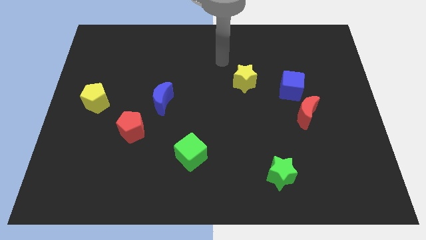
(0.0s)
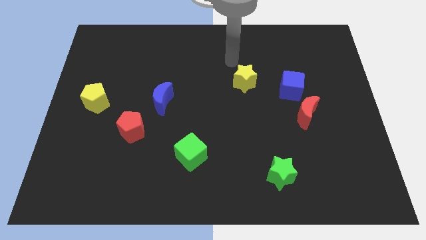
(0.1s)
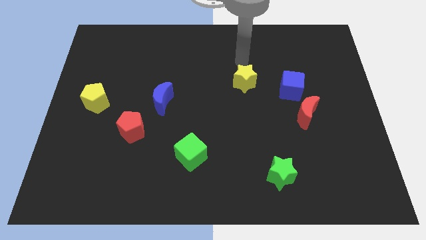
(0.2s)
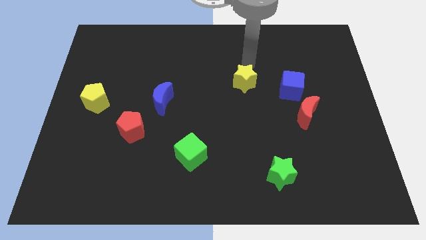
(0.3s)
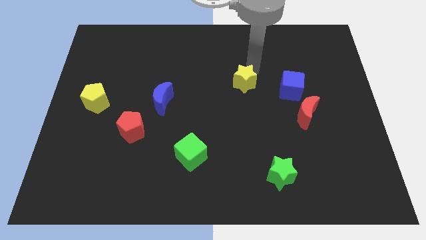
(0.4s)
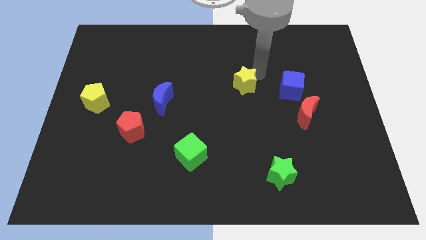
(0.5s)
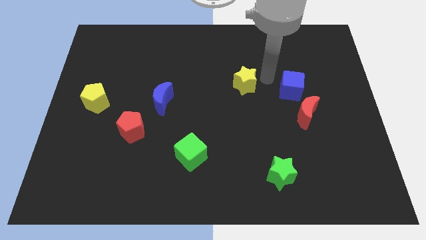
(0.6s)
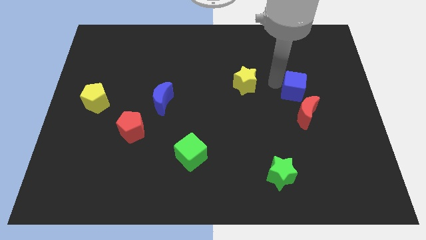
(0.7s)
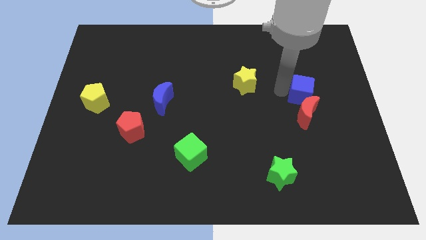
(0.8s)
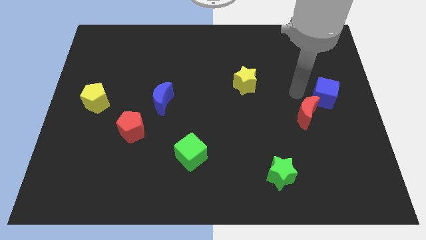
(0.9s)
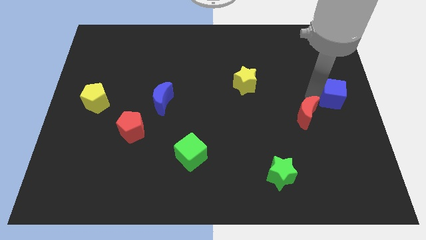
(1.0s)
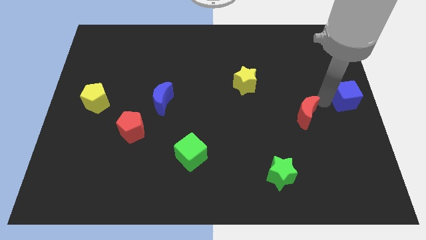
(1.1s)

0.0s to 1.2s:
pull the red moon apart from the blue cube

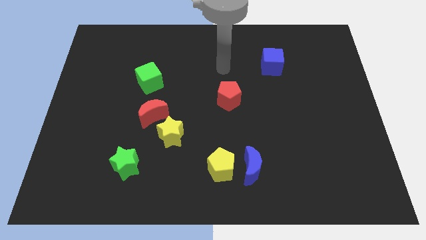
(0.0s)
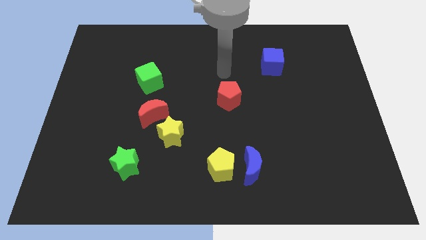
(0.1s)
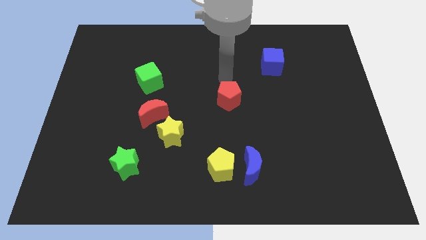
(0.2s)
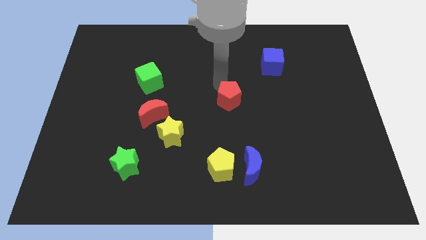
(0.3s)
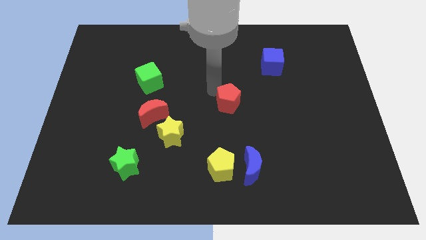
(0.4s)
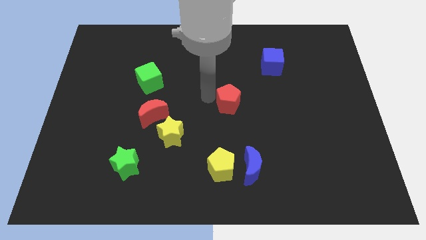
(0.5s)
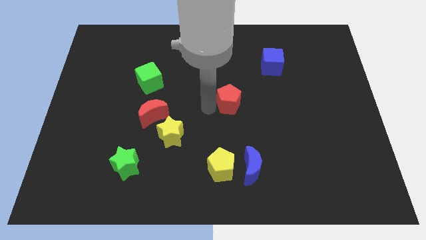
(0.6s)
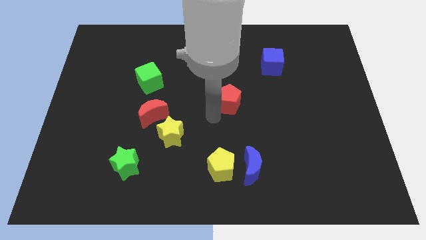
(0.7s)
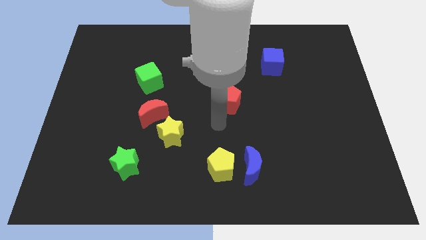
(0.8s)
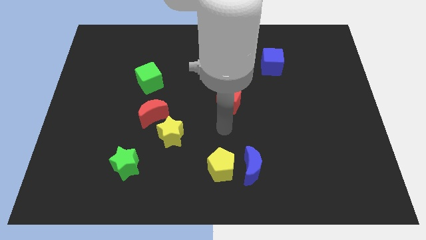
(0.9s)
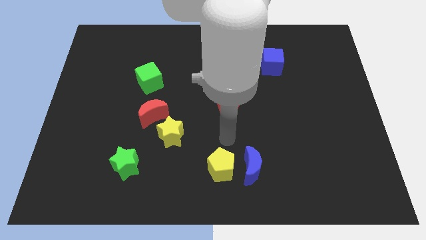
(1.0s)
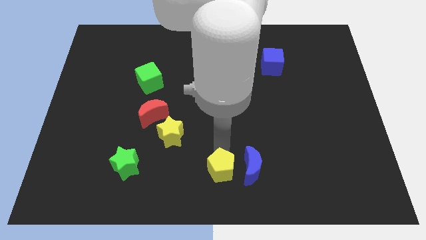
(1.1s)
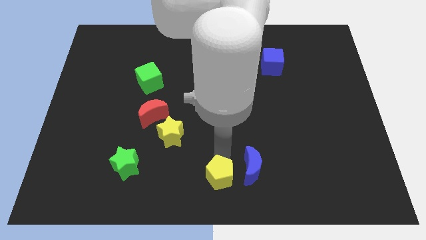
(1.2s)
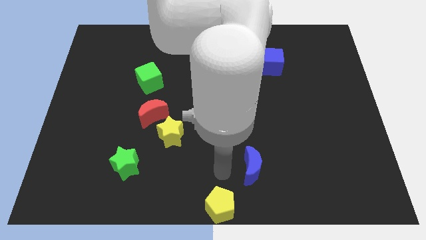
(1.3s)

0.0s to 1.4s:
separate the blue moon from the yellow pentagon

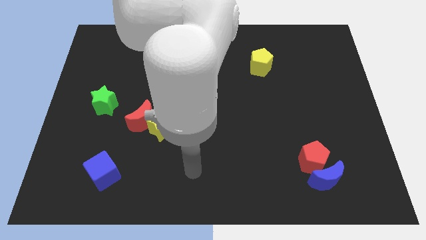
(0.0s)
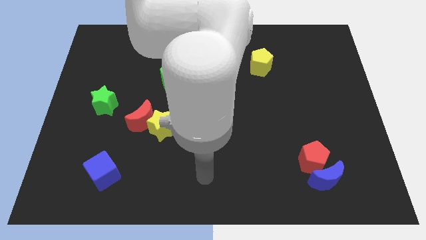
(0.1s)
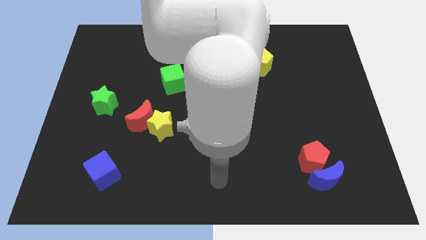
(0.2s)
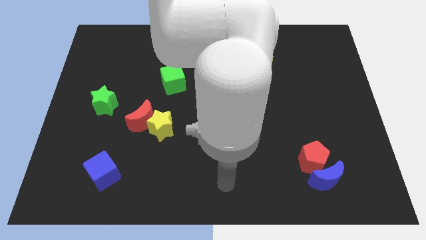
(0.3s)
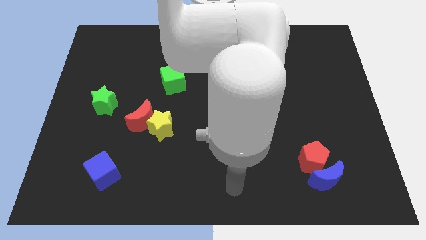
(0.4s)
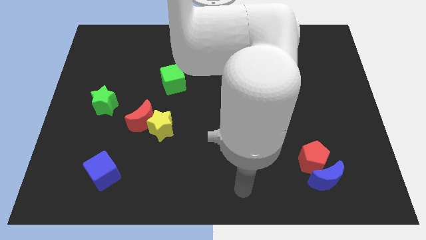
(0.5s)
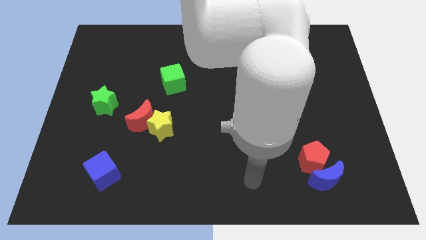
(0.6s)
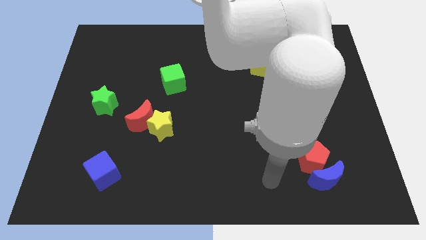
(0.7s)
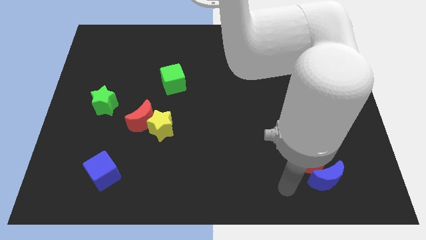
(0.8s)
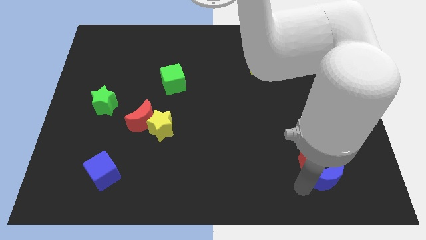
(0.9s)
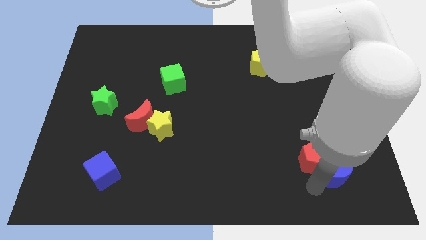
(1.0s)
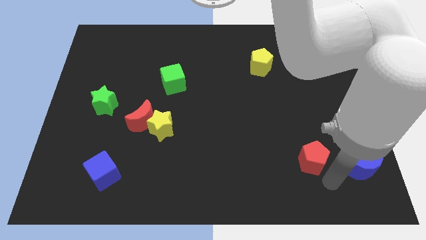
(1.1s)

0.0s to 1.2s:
pull the red pentagon apart from the blue moon

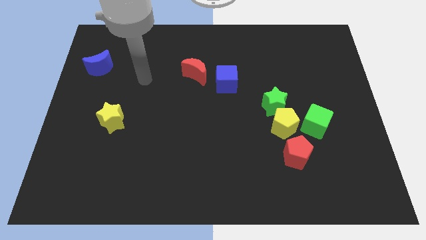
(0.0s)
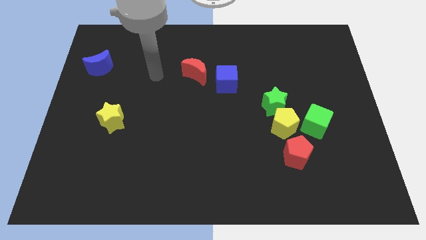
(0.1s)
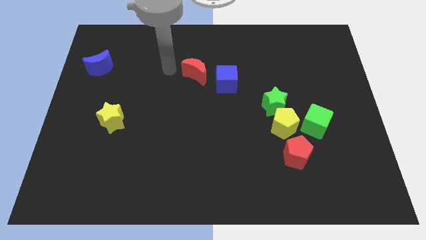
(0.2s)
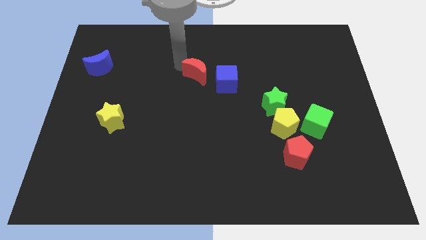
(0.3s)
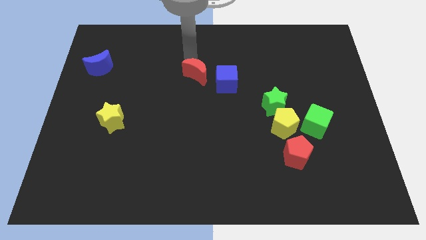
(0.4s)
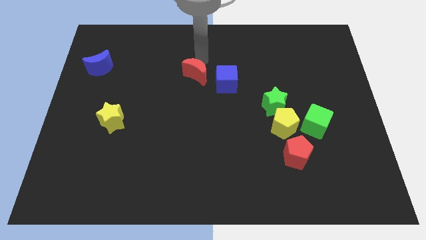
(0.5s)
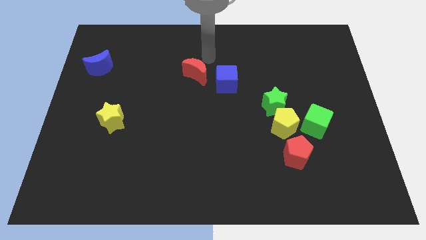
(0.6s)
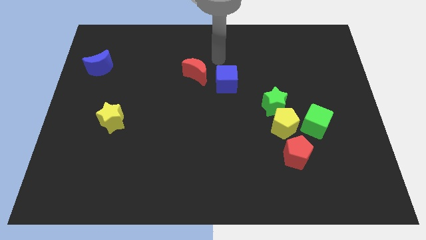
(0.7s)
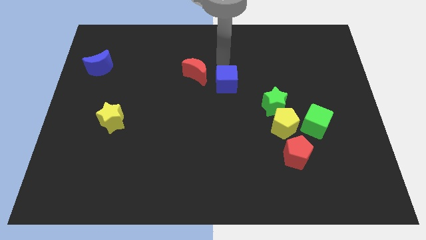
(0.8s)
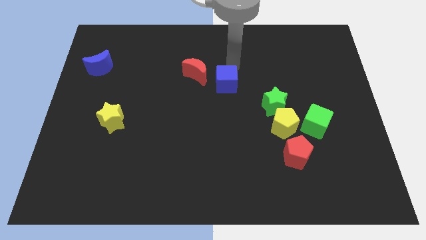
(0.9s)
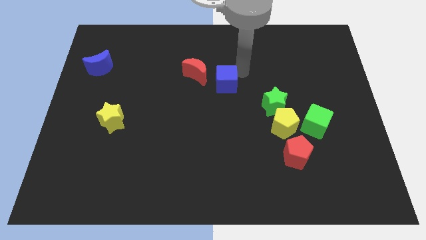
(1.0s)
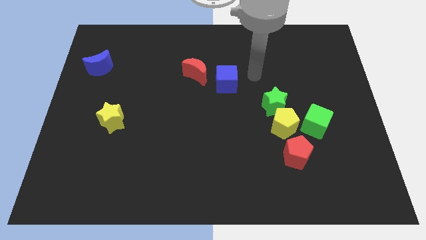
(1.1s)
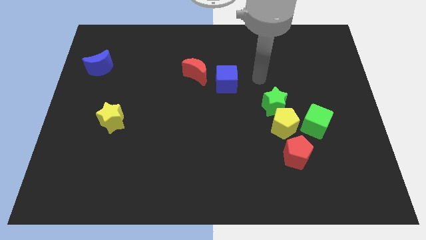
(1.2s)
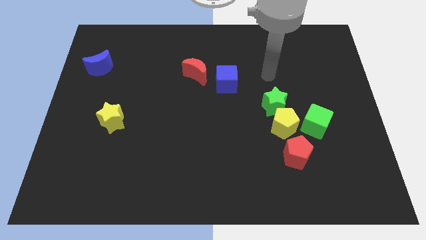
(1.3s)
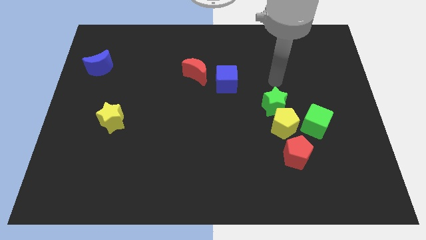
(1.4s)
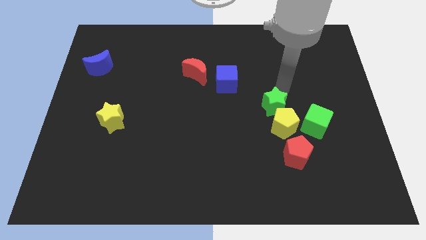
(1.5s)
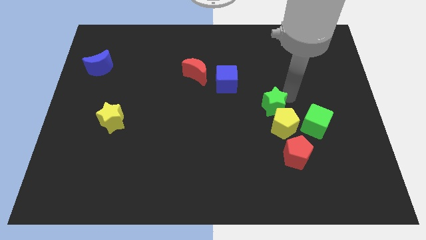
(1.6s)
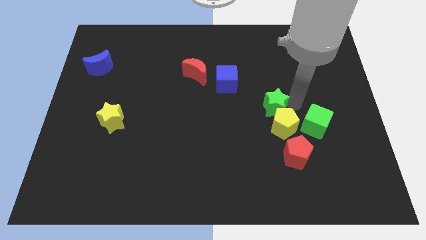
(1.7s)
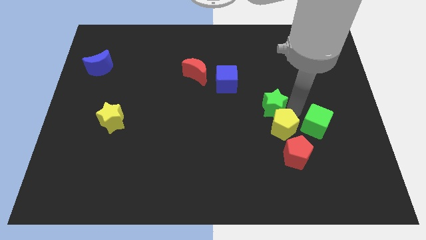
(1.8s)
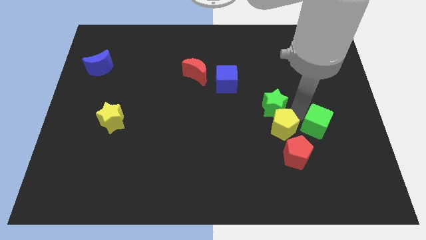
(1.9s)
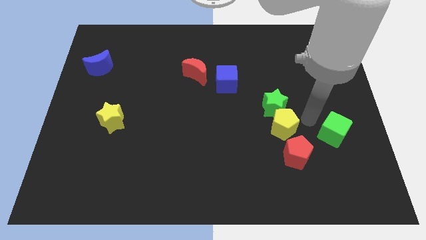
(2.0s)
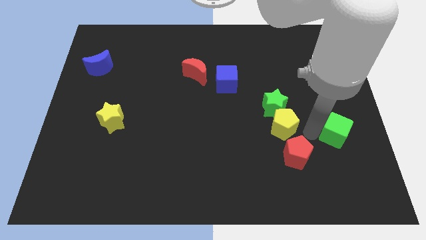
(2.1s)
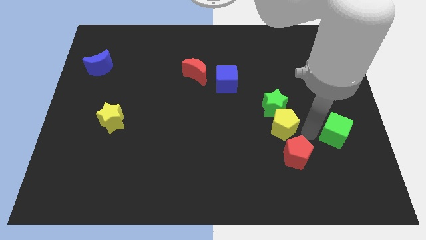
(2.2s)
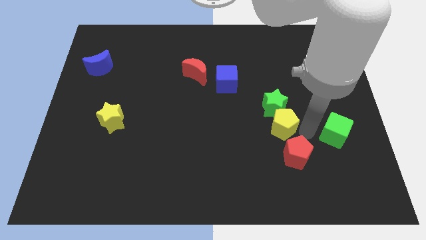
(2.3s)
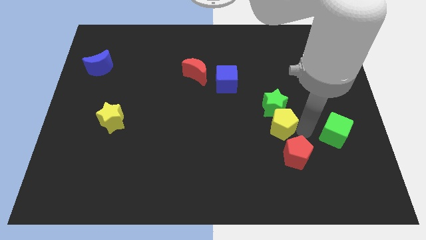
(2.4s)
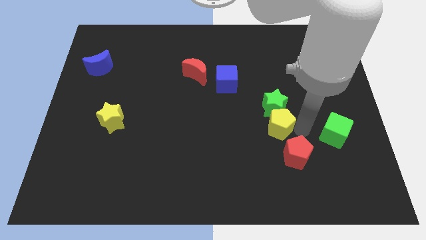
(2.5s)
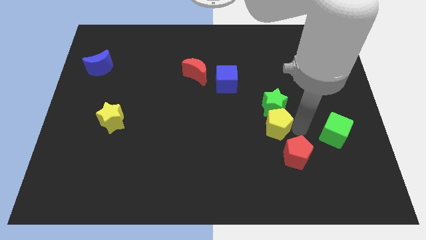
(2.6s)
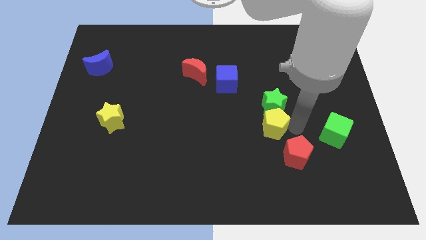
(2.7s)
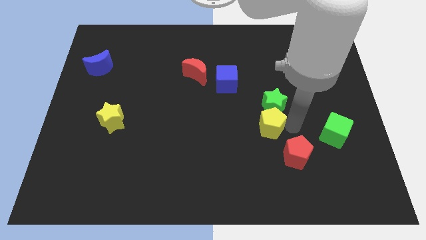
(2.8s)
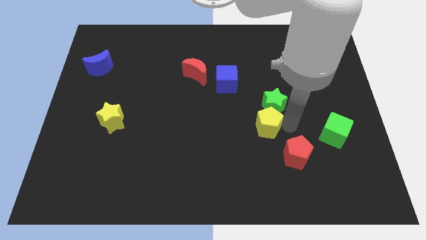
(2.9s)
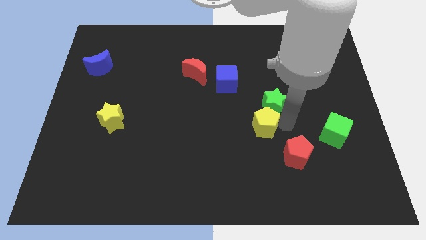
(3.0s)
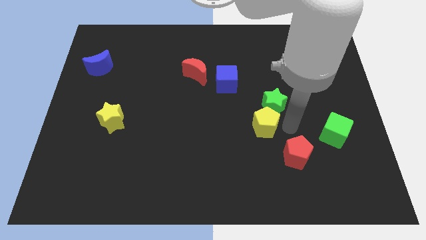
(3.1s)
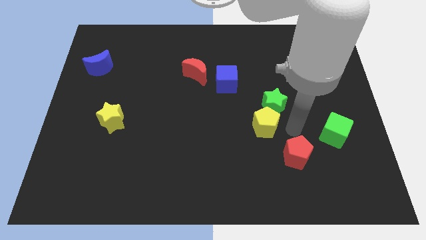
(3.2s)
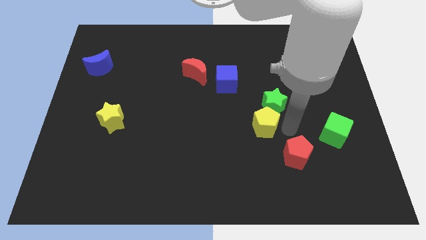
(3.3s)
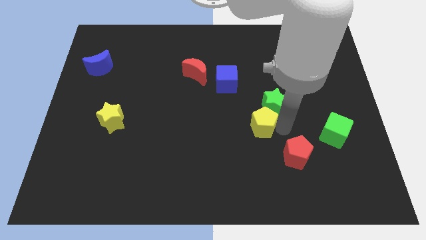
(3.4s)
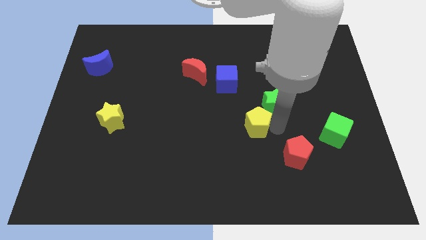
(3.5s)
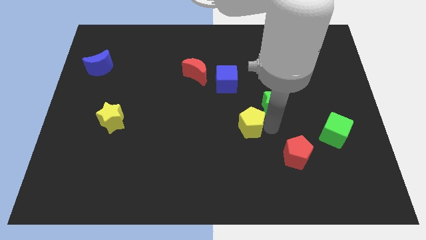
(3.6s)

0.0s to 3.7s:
move the yellow pentagon away from the group

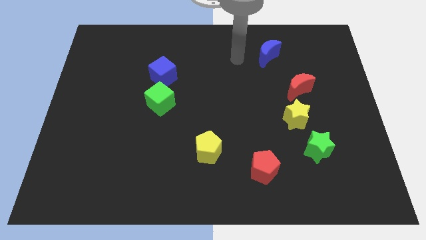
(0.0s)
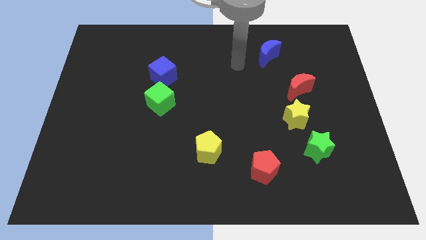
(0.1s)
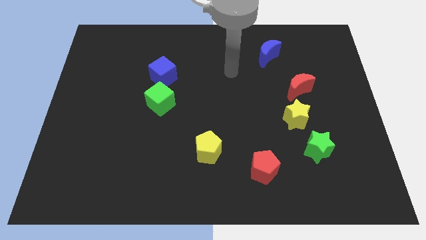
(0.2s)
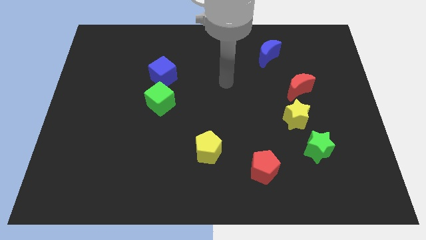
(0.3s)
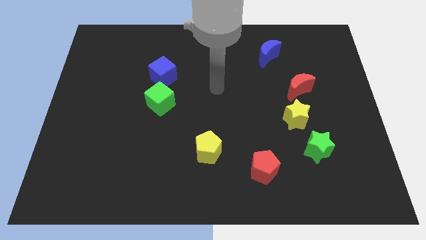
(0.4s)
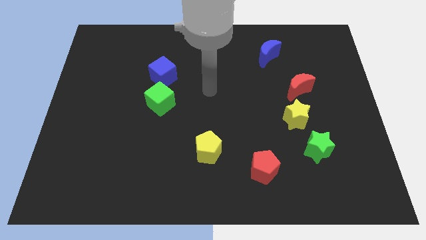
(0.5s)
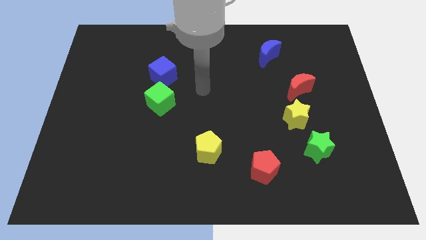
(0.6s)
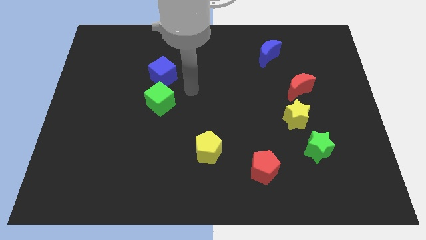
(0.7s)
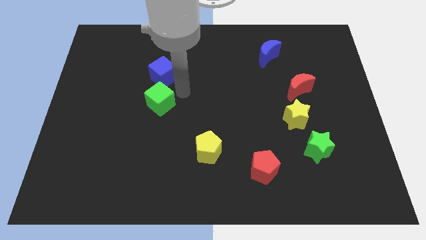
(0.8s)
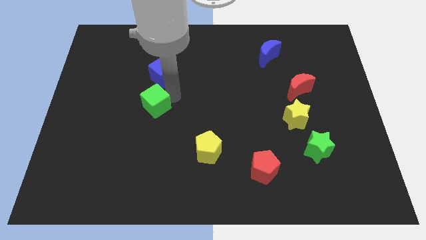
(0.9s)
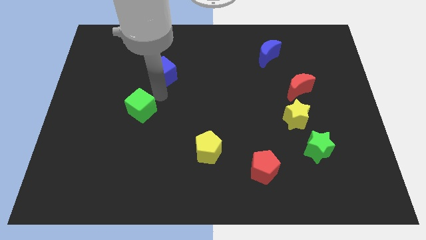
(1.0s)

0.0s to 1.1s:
move the blue cube away from the green cube

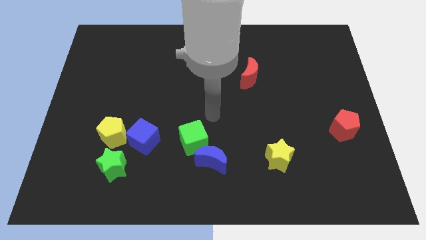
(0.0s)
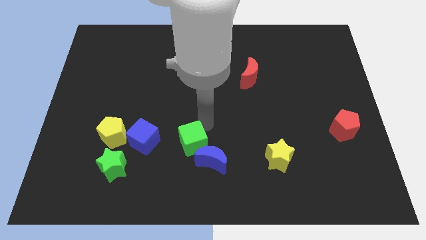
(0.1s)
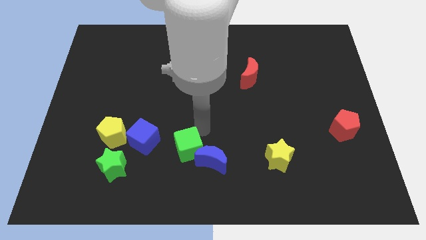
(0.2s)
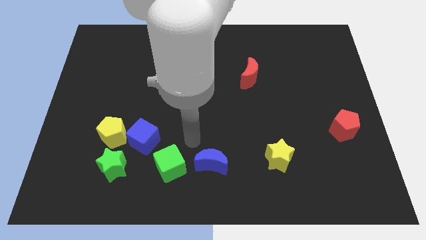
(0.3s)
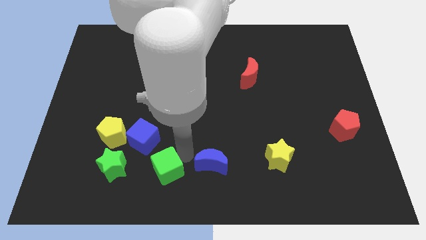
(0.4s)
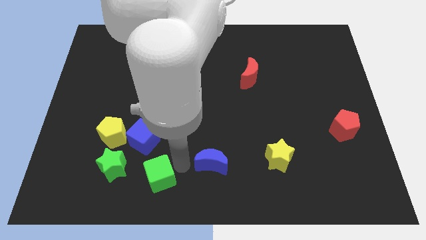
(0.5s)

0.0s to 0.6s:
move the blue moon away from the green cube

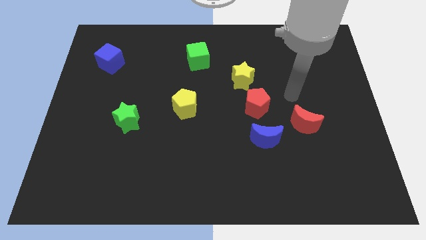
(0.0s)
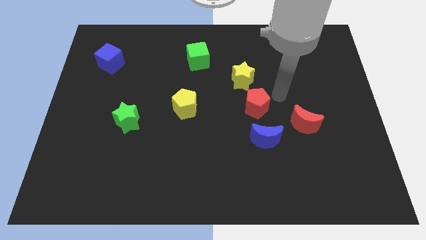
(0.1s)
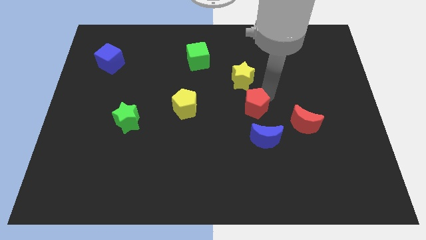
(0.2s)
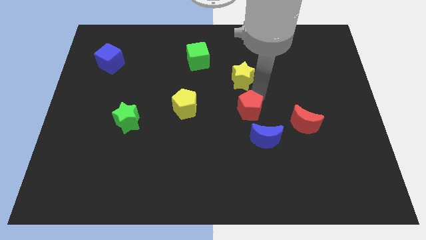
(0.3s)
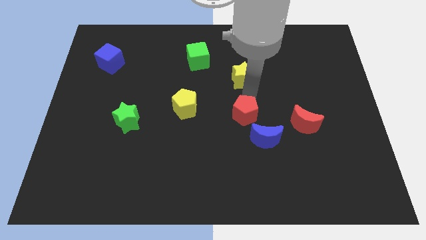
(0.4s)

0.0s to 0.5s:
pull the yellow star apart from the red pentagon
